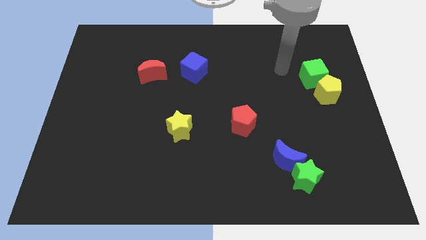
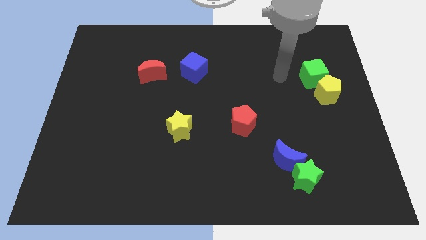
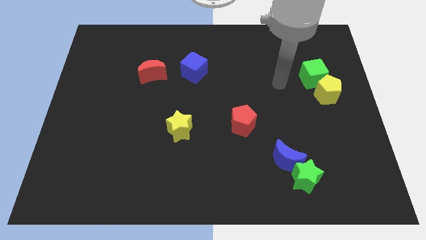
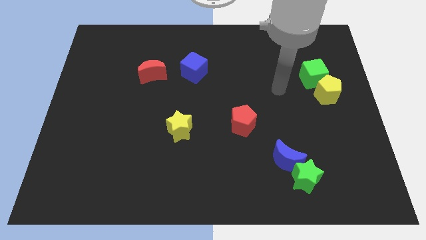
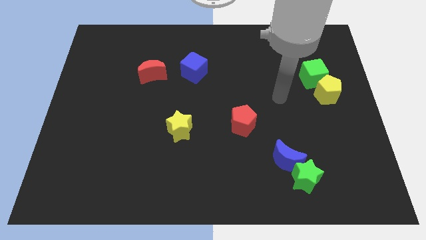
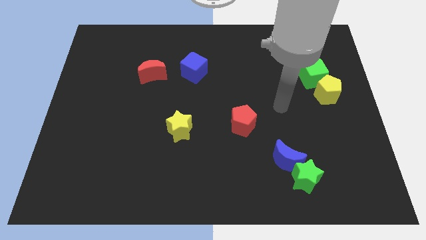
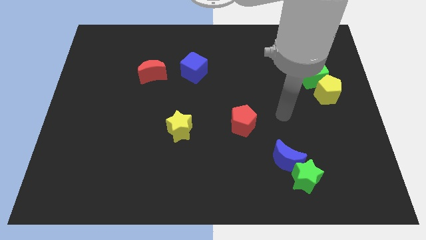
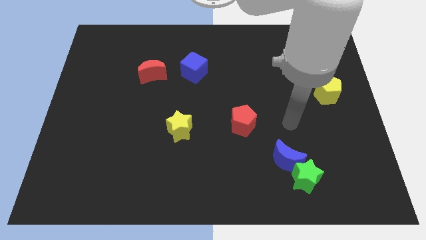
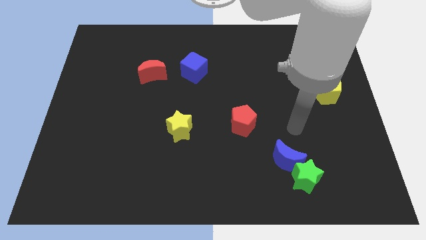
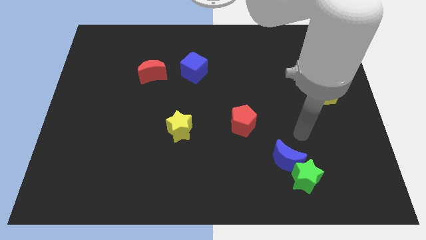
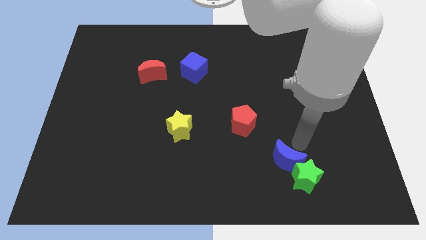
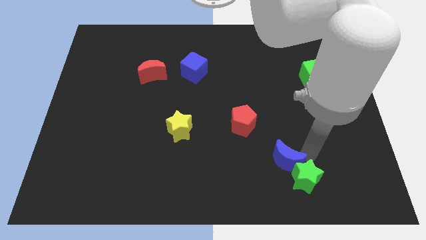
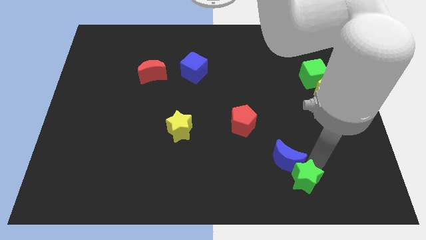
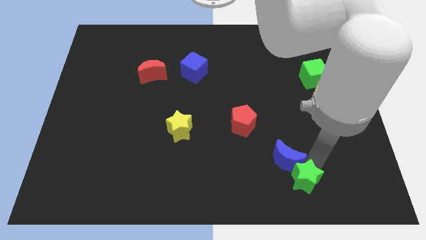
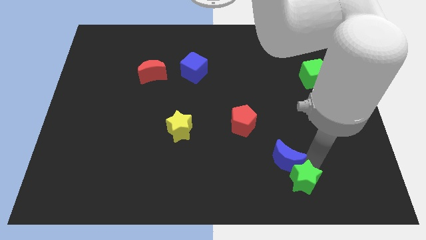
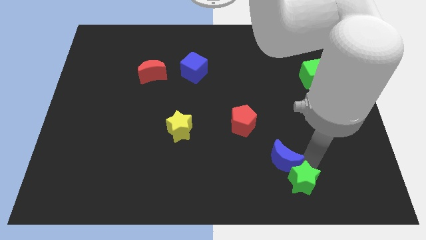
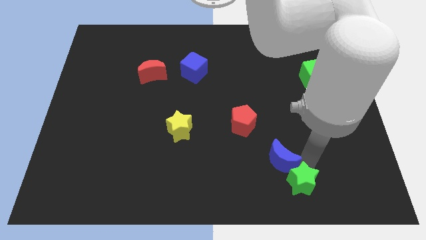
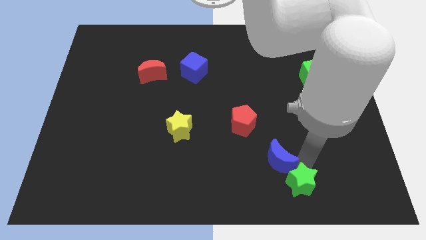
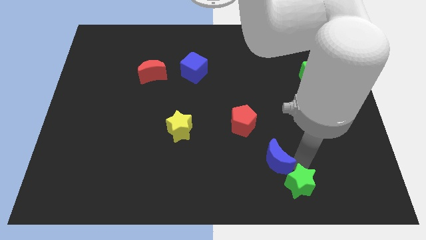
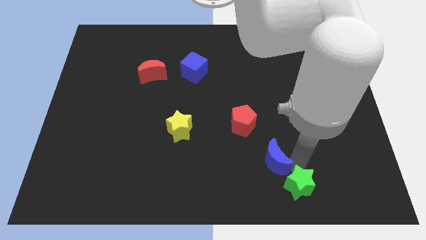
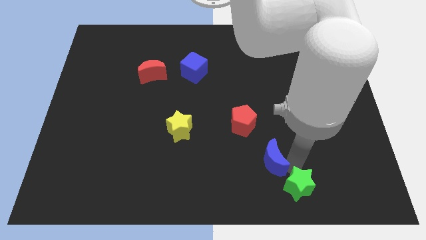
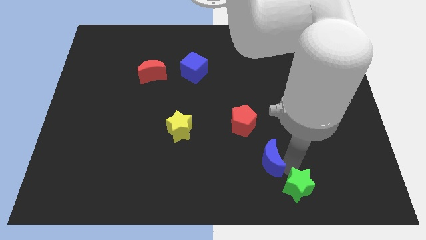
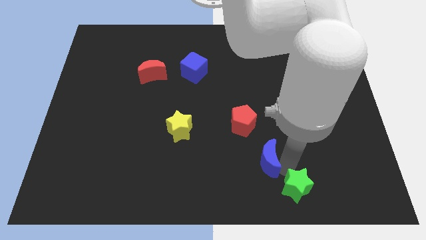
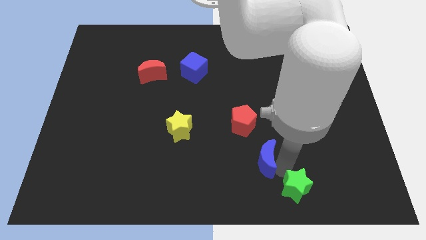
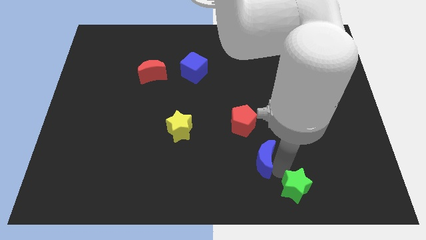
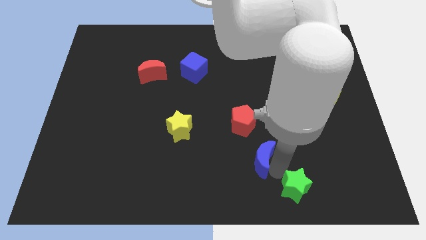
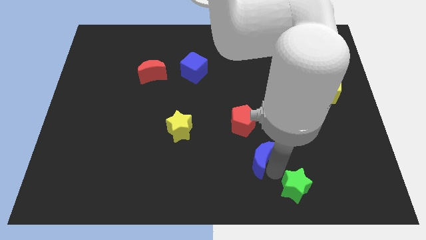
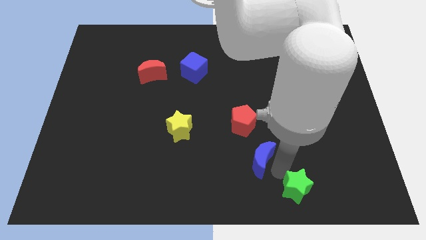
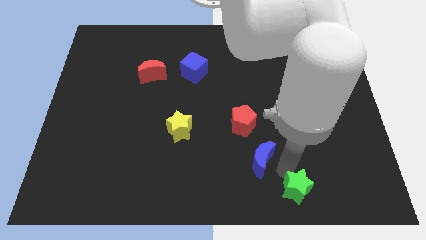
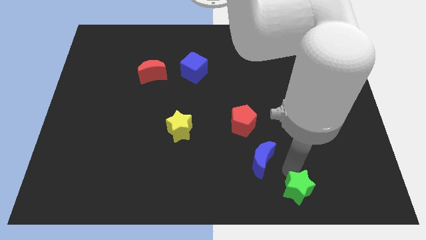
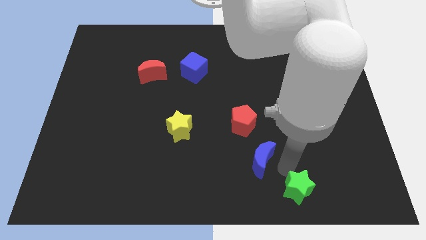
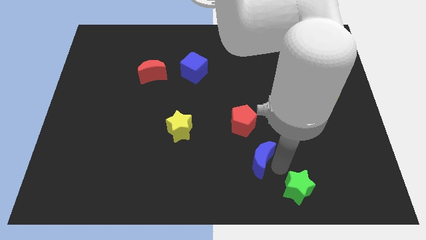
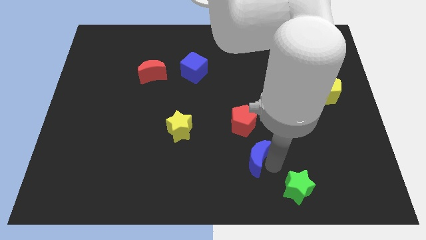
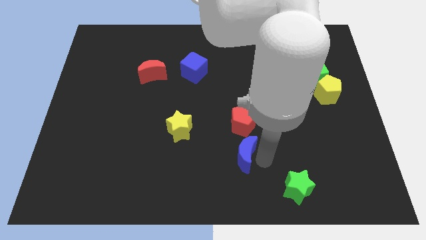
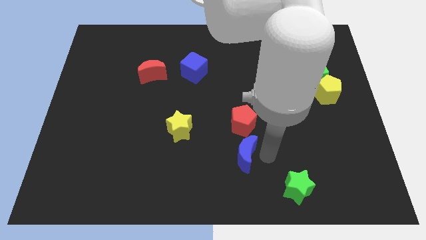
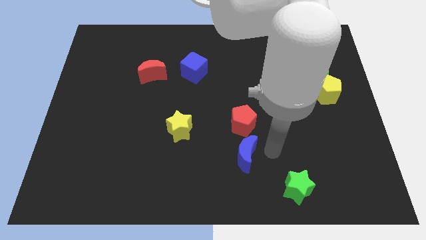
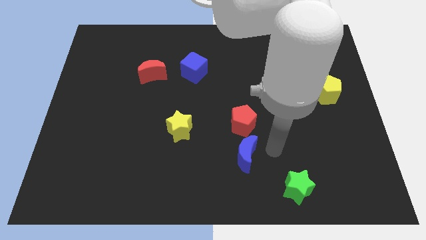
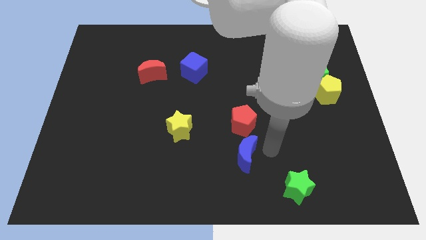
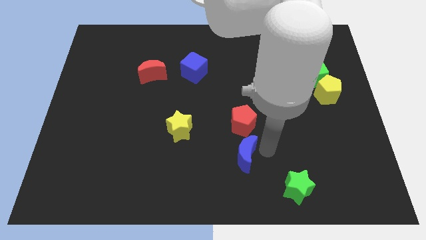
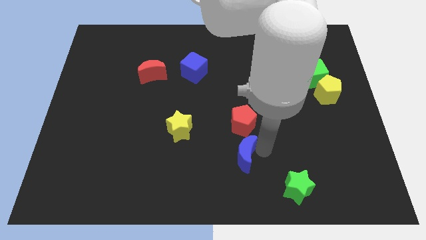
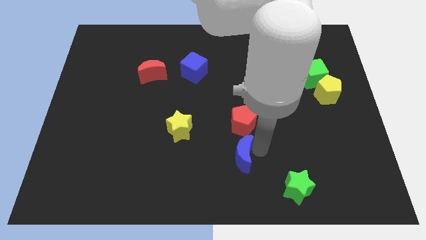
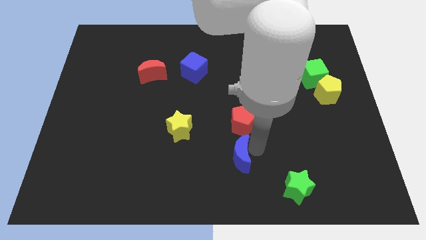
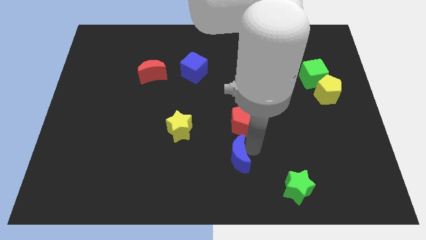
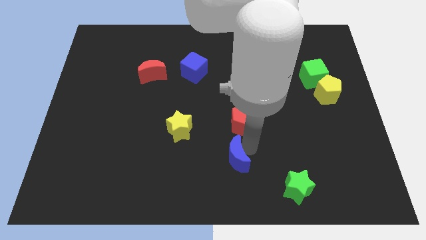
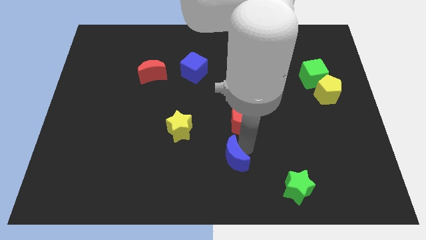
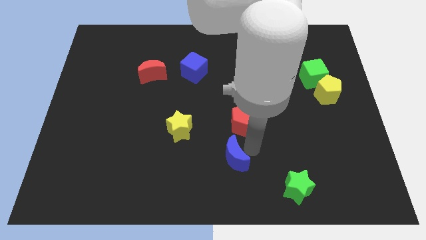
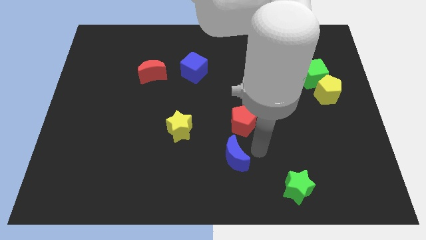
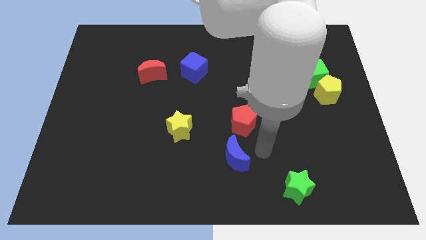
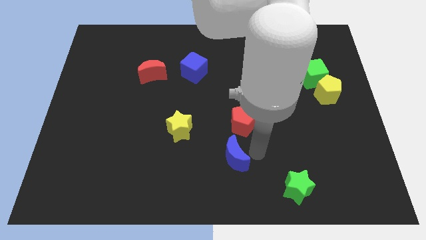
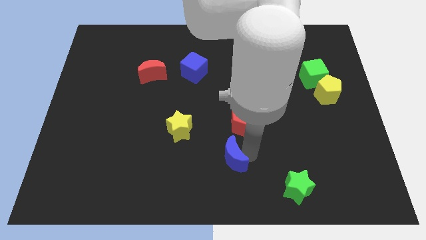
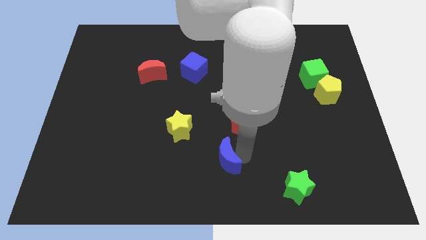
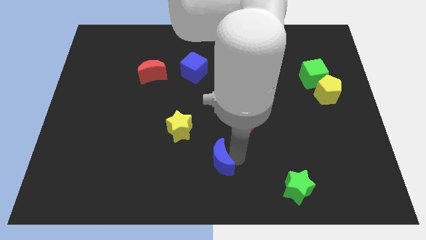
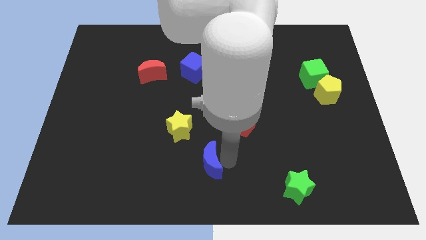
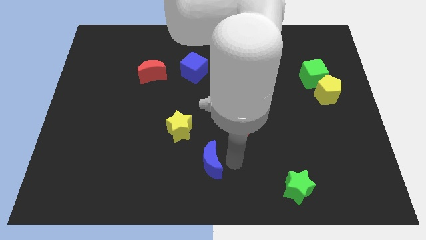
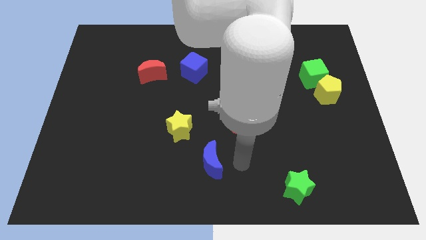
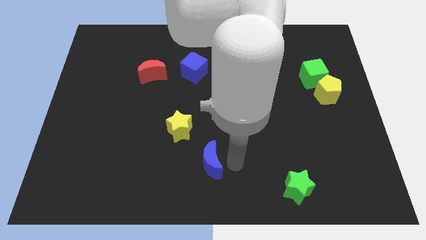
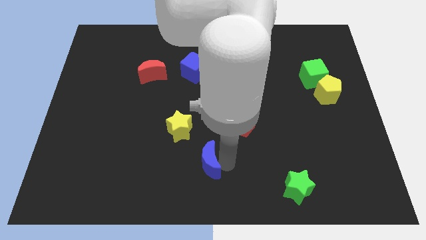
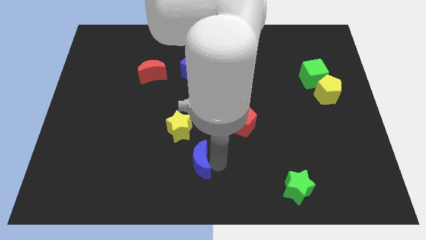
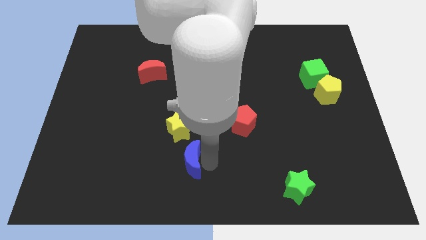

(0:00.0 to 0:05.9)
push the blue moon left

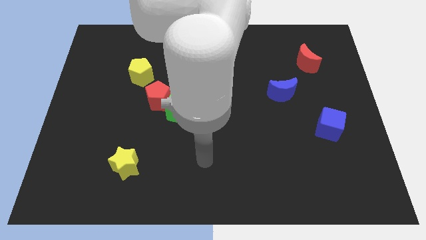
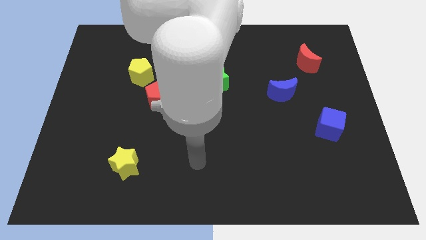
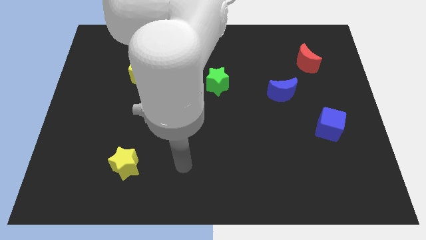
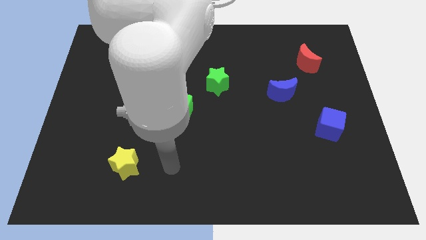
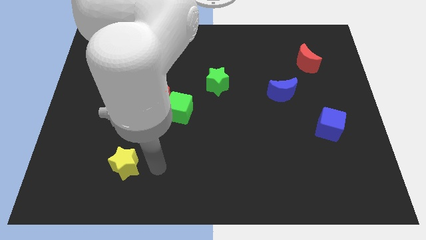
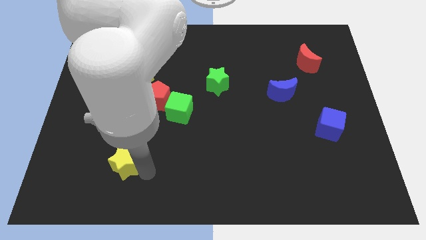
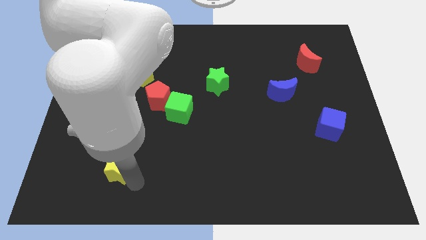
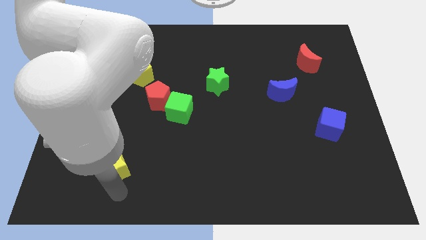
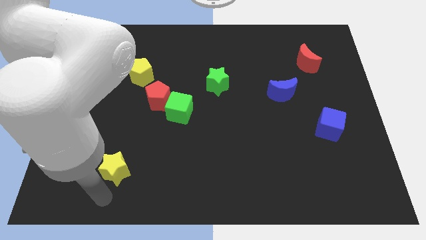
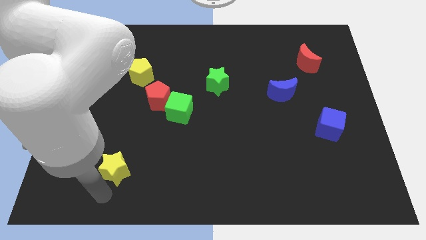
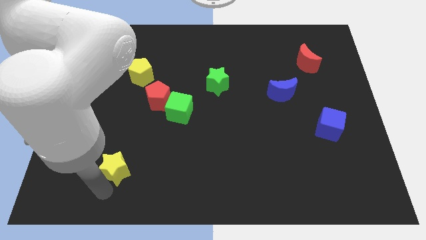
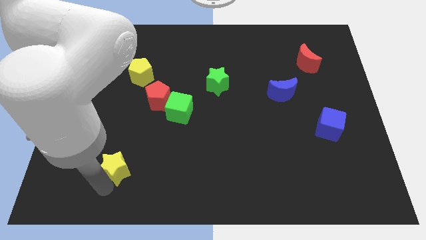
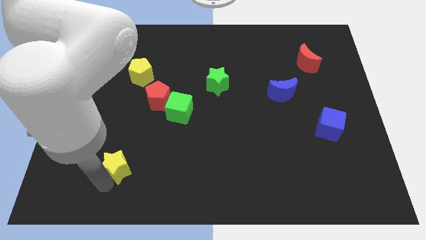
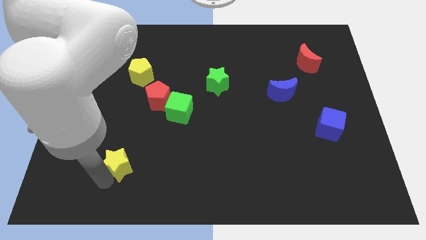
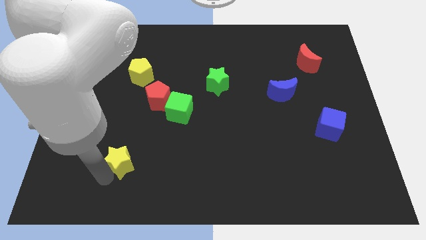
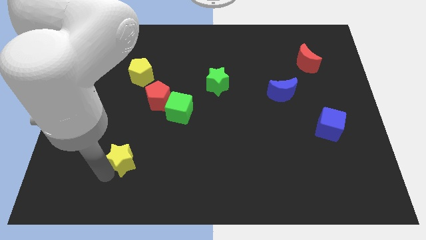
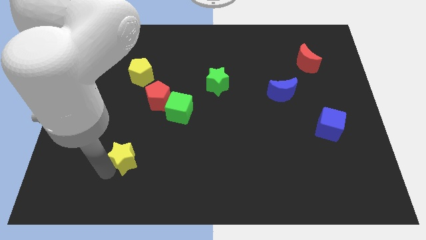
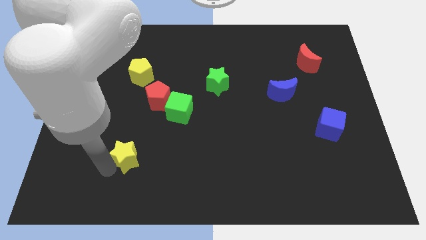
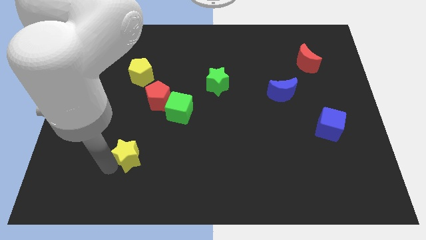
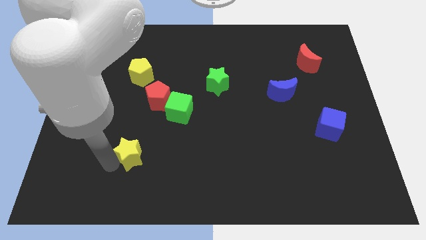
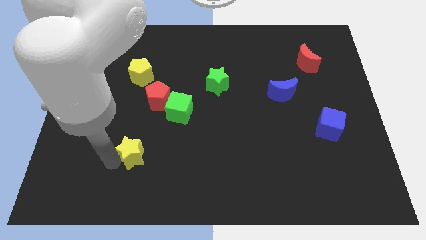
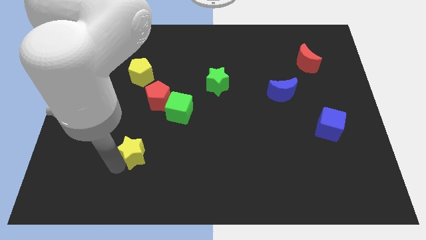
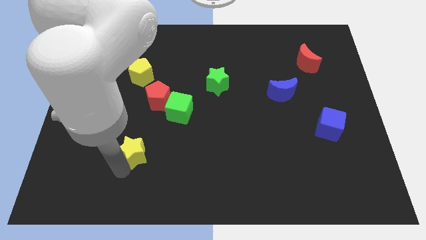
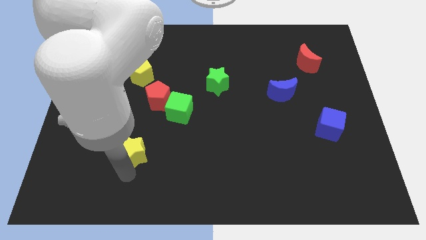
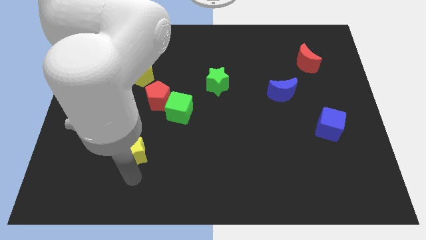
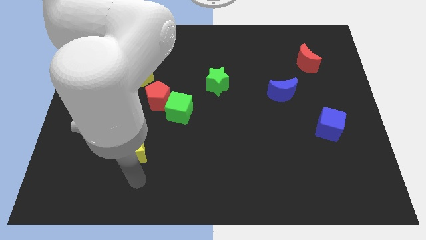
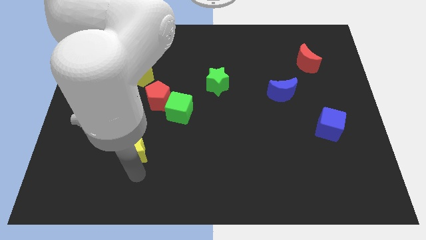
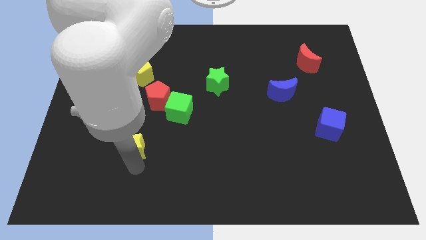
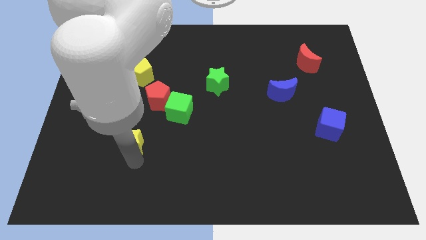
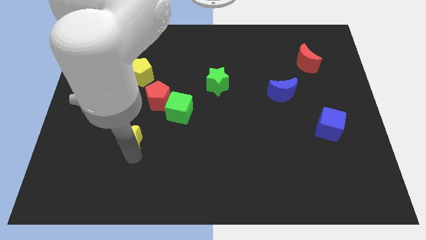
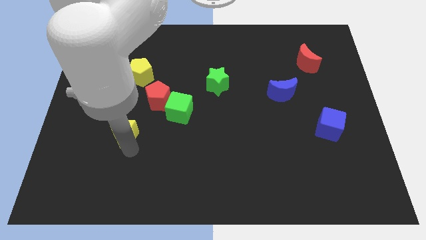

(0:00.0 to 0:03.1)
slide the yellow star a little upwards
